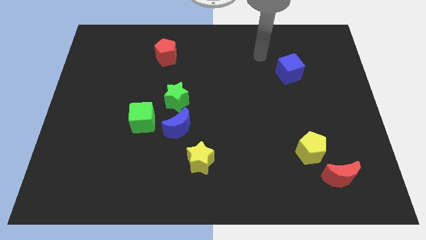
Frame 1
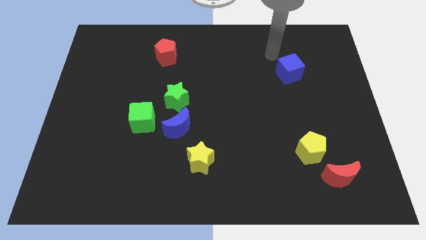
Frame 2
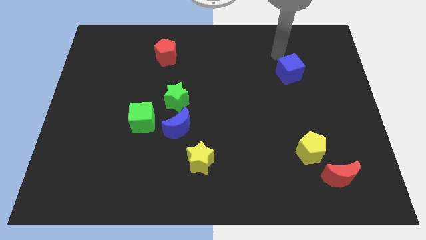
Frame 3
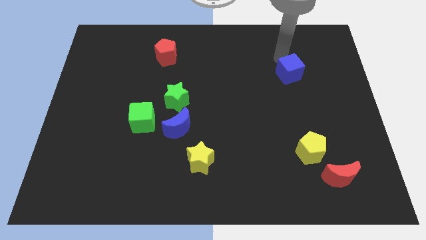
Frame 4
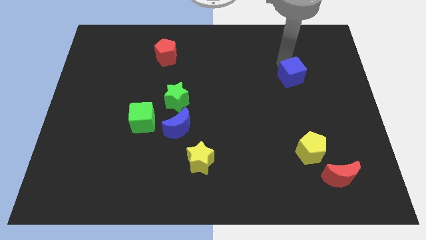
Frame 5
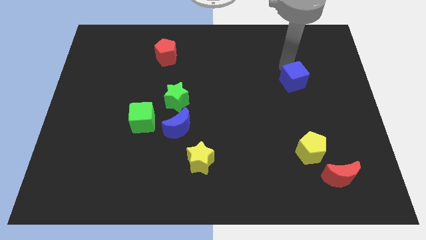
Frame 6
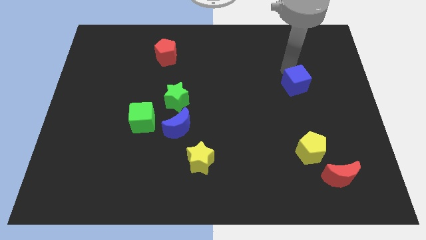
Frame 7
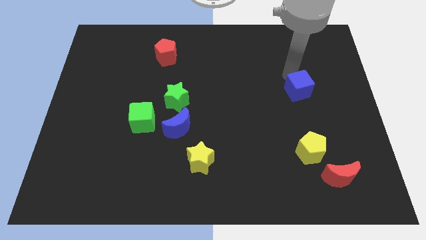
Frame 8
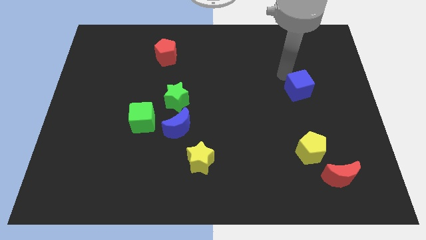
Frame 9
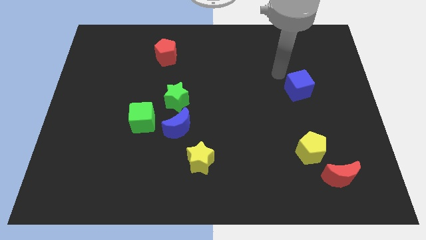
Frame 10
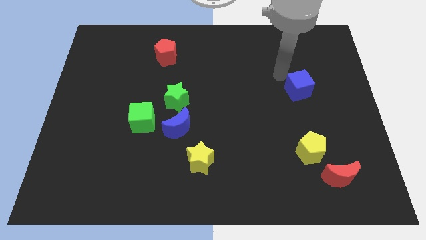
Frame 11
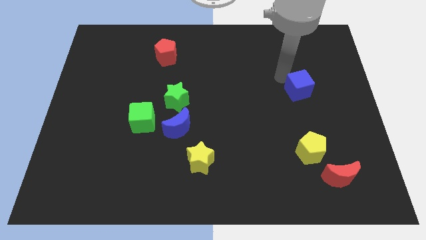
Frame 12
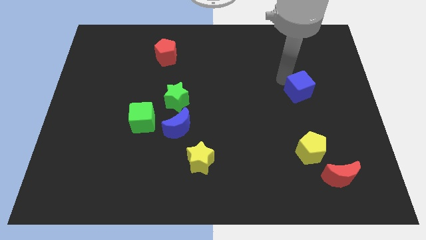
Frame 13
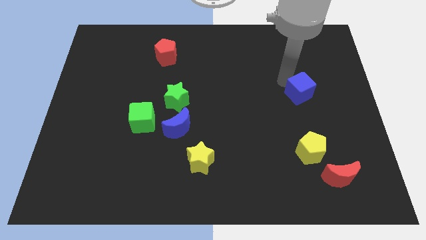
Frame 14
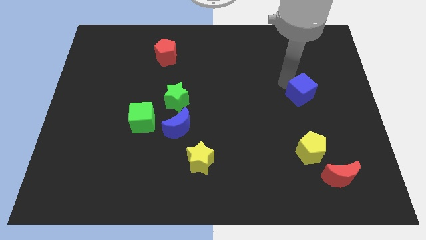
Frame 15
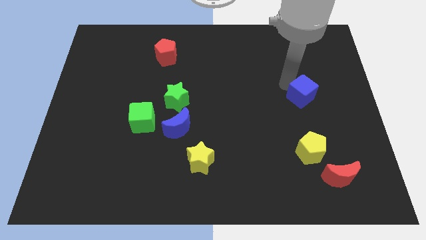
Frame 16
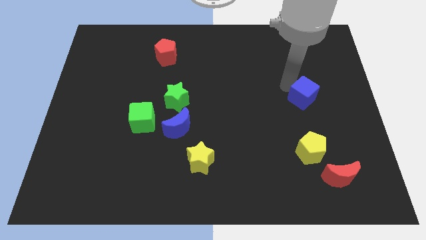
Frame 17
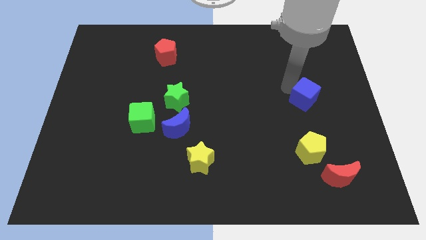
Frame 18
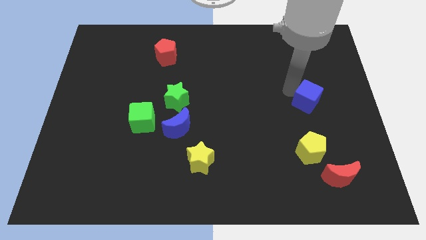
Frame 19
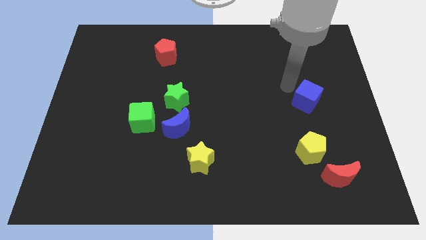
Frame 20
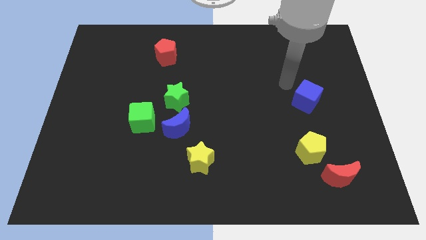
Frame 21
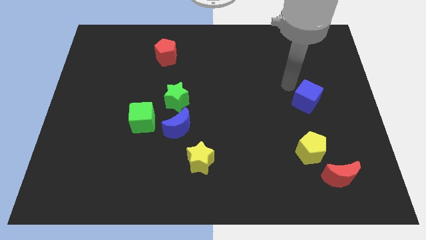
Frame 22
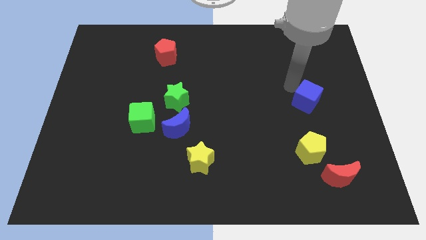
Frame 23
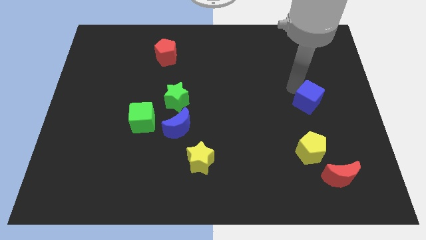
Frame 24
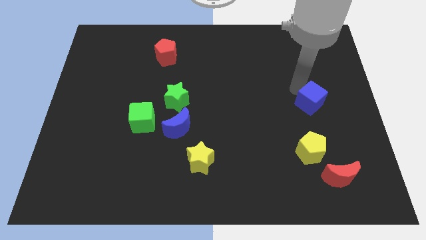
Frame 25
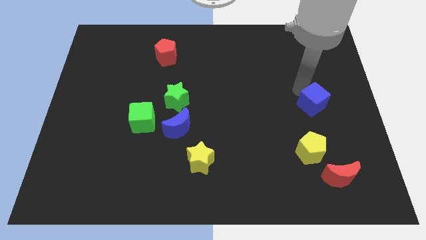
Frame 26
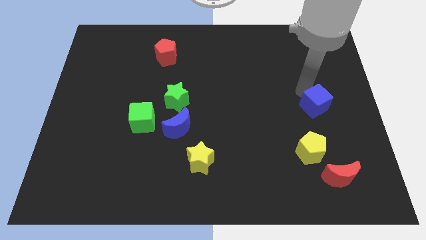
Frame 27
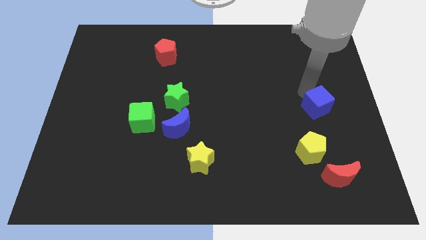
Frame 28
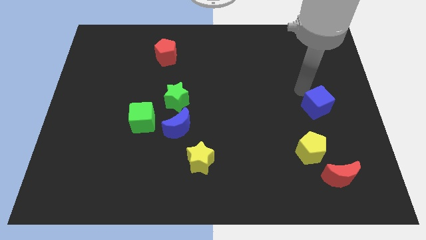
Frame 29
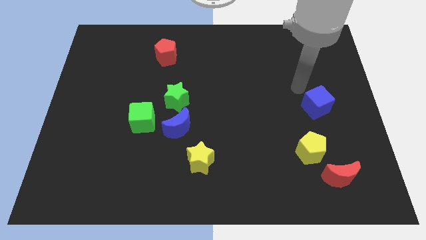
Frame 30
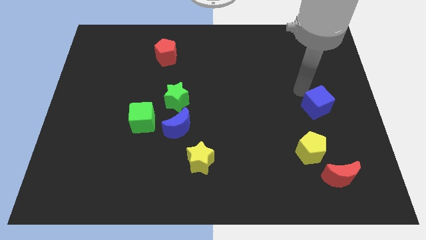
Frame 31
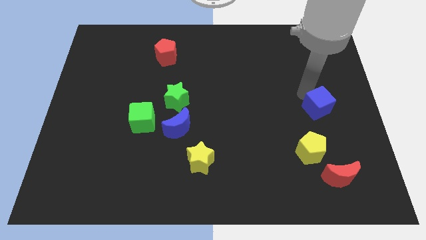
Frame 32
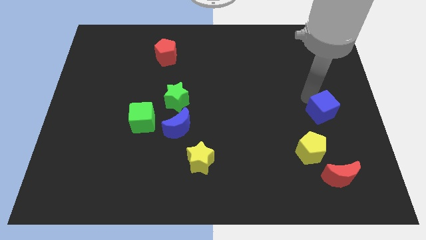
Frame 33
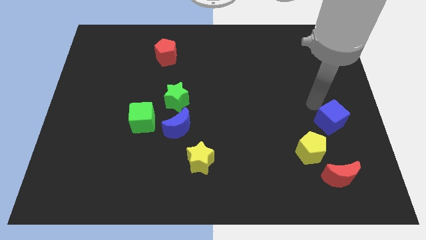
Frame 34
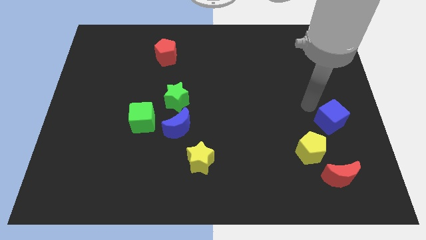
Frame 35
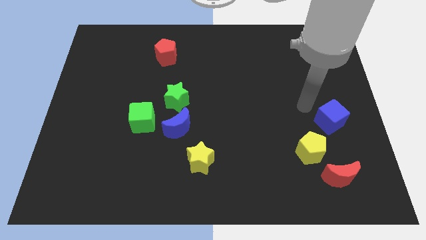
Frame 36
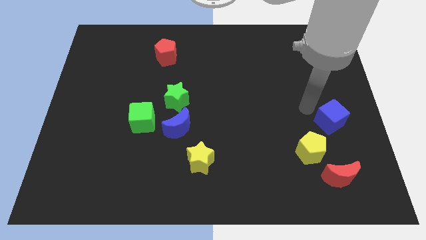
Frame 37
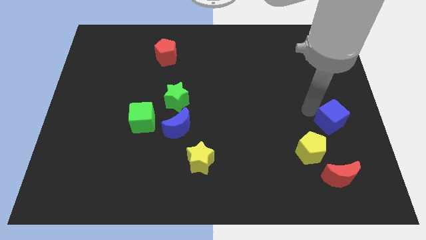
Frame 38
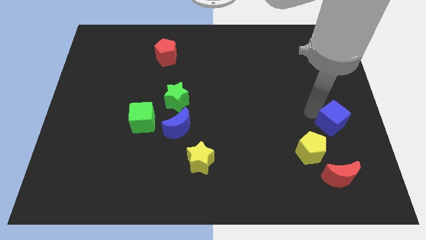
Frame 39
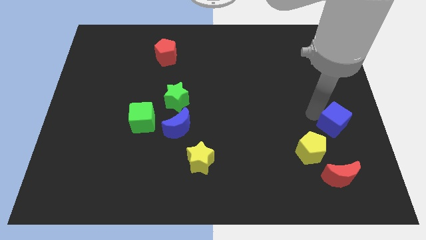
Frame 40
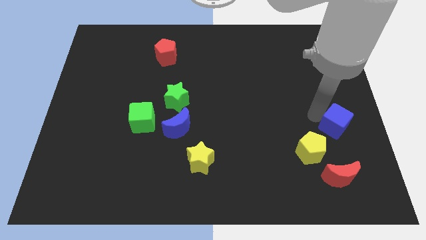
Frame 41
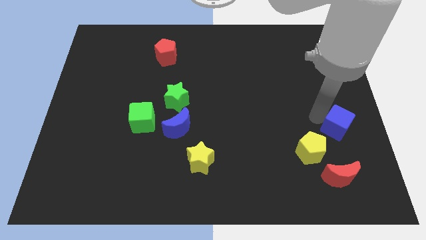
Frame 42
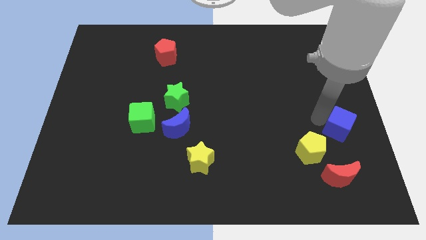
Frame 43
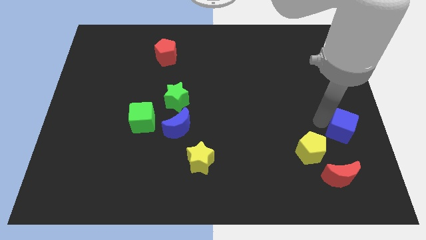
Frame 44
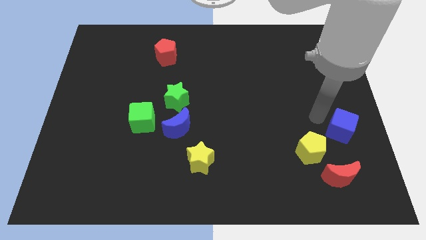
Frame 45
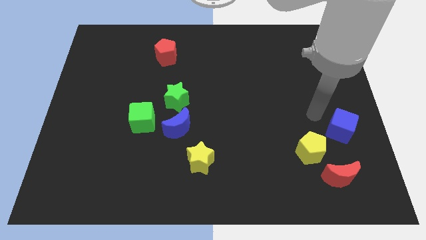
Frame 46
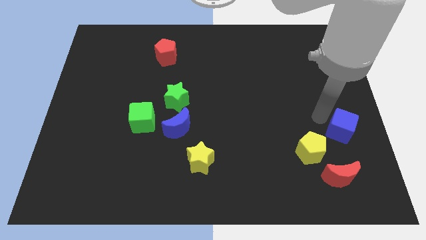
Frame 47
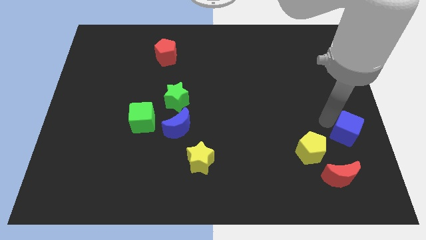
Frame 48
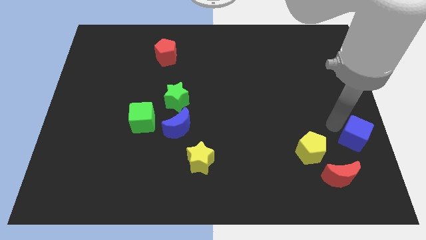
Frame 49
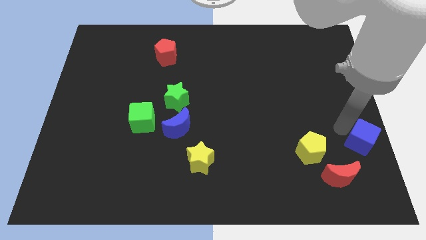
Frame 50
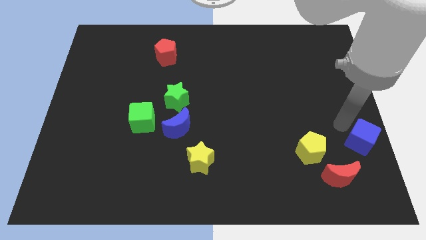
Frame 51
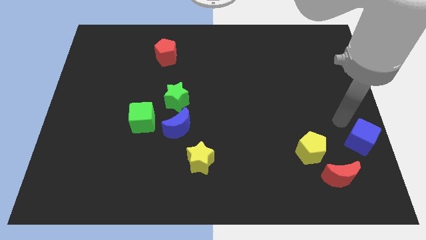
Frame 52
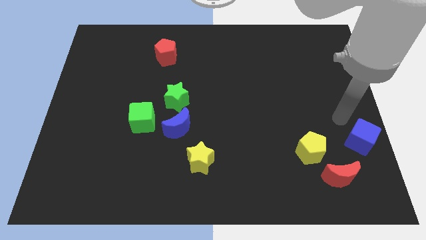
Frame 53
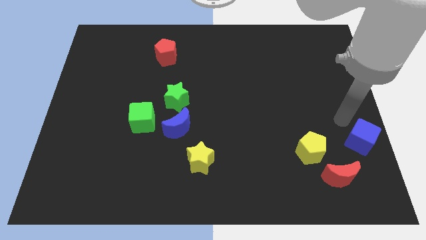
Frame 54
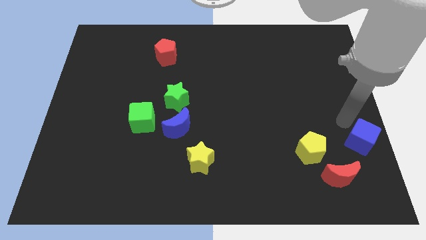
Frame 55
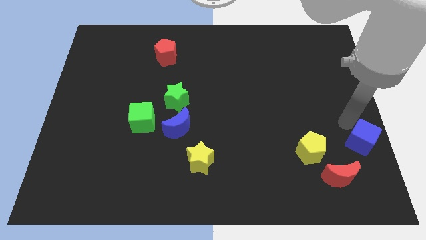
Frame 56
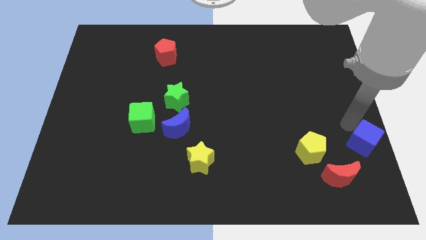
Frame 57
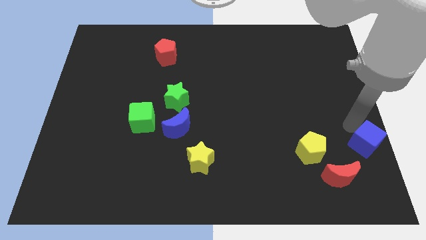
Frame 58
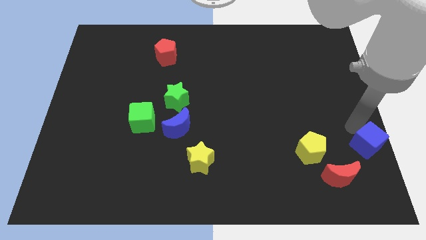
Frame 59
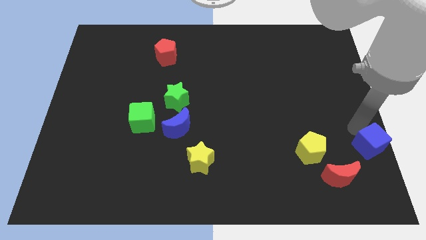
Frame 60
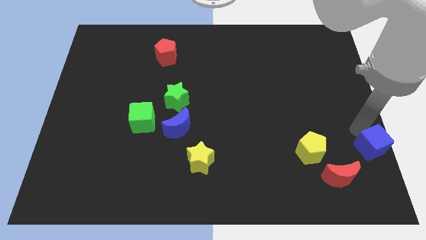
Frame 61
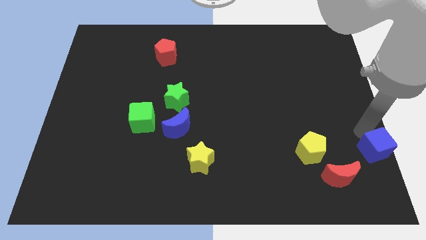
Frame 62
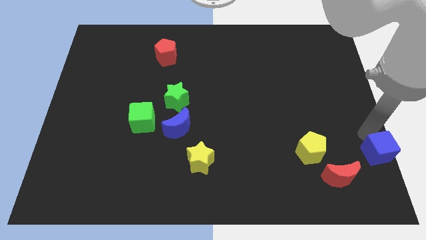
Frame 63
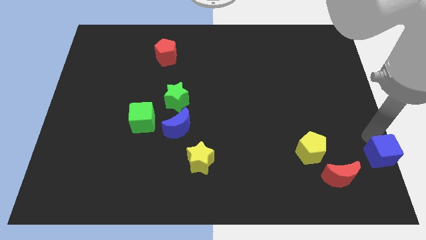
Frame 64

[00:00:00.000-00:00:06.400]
slide the blue cube to the lower right corner
